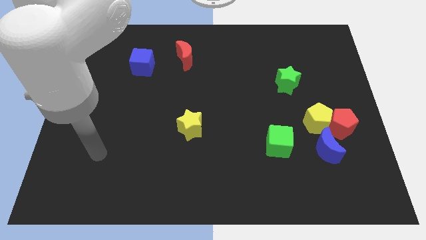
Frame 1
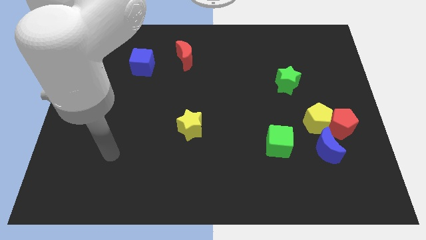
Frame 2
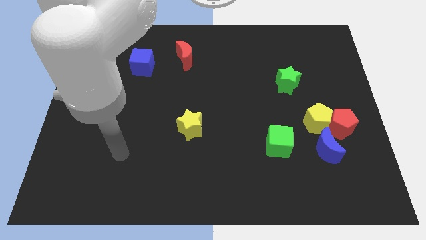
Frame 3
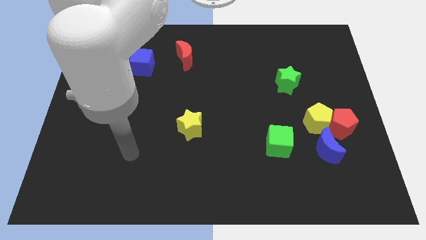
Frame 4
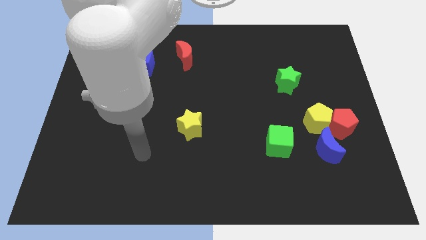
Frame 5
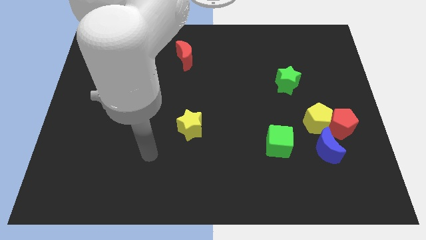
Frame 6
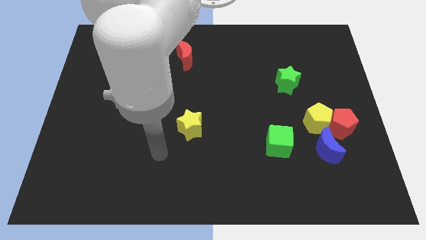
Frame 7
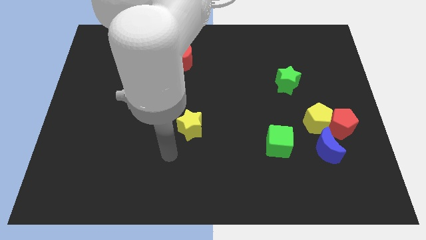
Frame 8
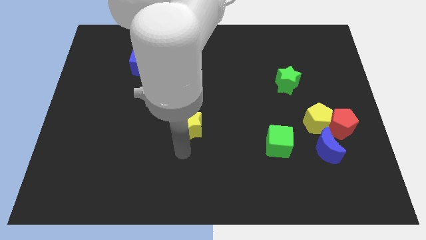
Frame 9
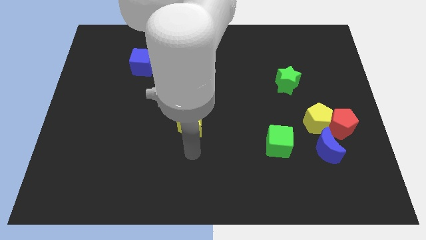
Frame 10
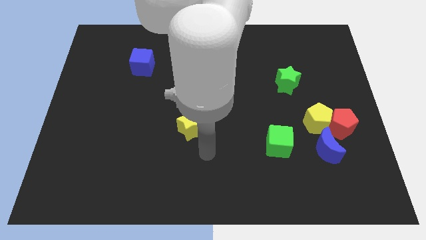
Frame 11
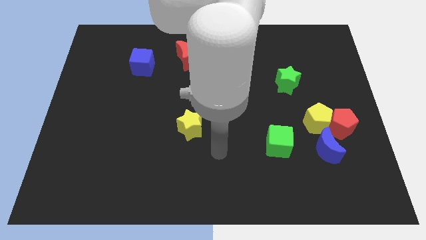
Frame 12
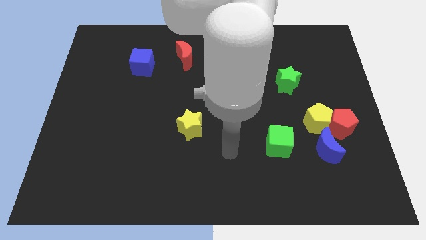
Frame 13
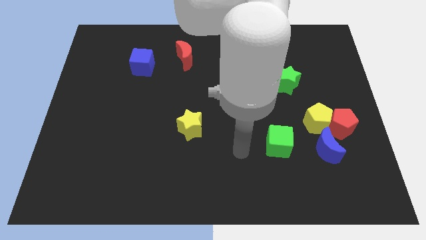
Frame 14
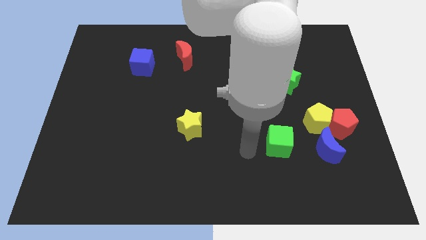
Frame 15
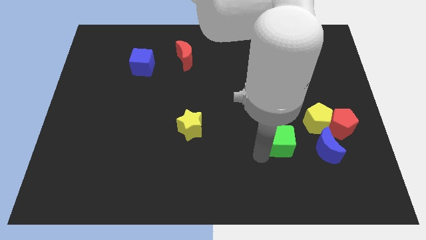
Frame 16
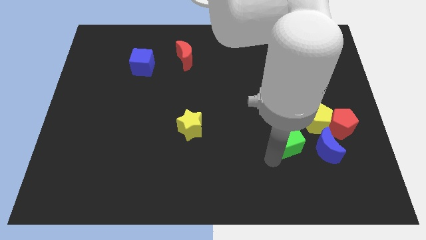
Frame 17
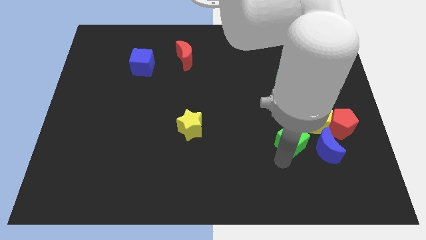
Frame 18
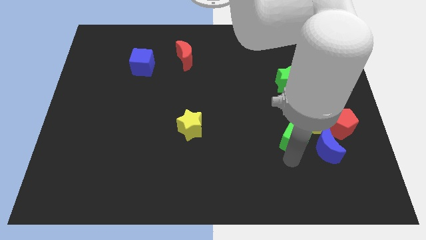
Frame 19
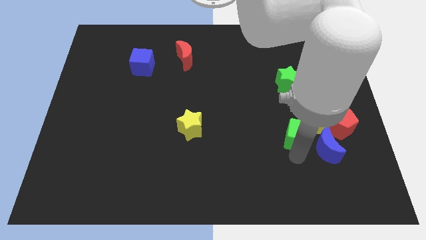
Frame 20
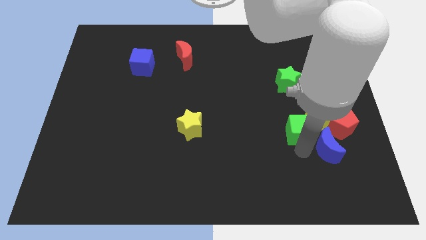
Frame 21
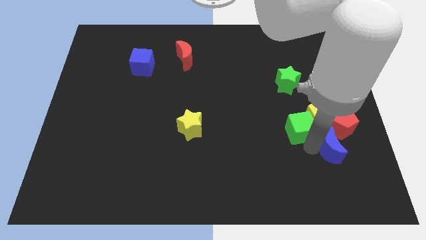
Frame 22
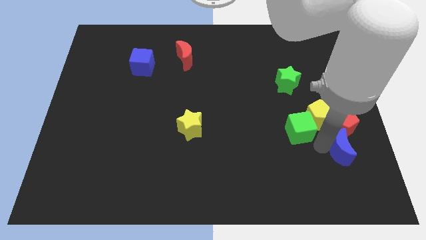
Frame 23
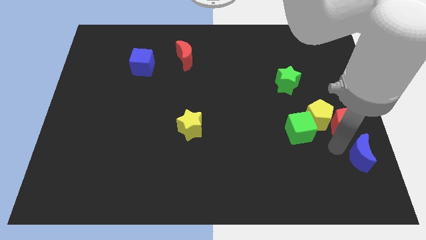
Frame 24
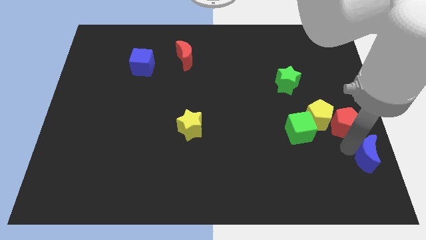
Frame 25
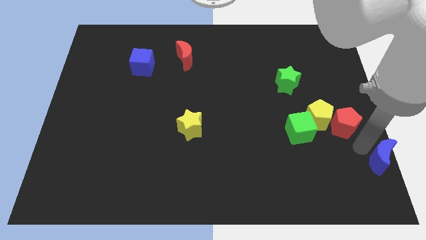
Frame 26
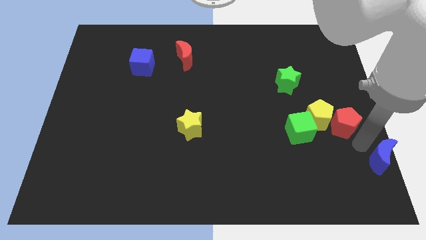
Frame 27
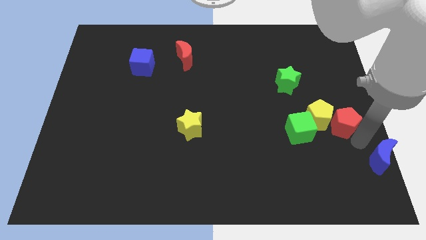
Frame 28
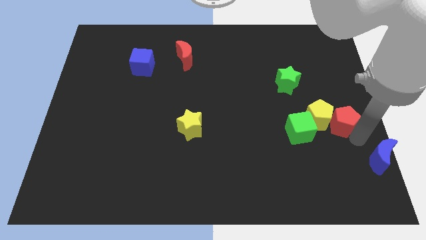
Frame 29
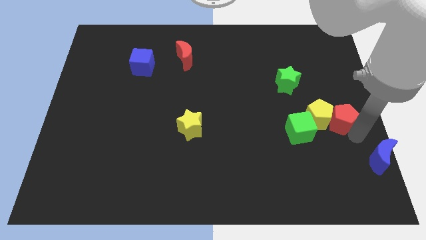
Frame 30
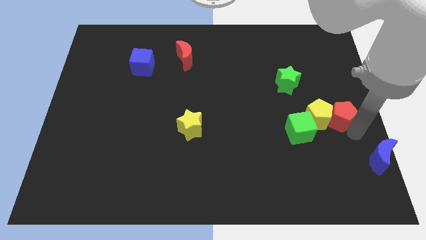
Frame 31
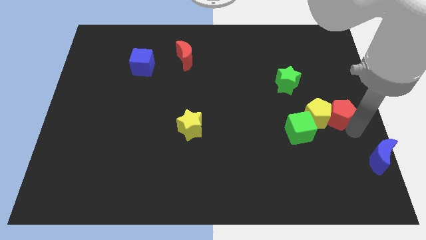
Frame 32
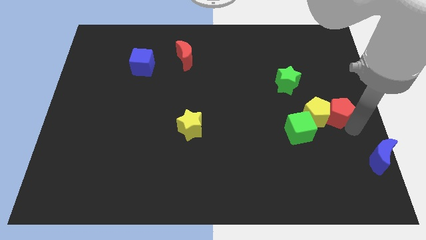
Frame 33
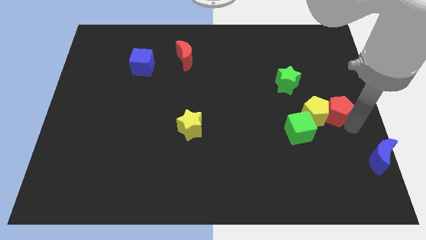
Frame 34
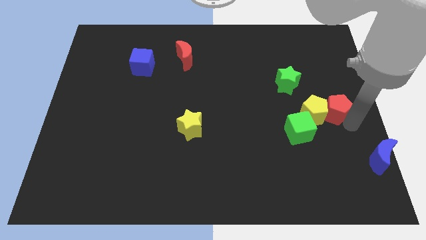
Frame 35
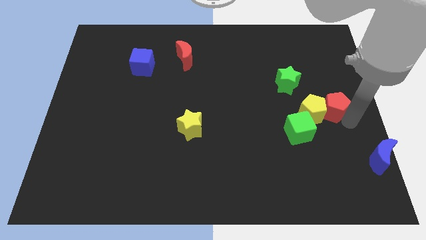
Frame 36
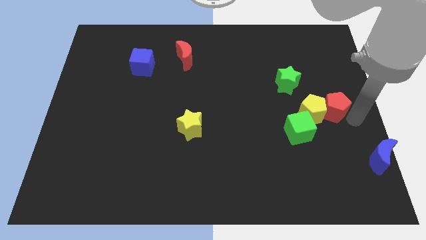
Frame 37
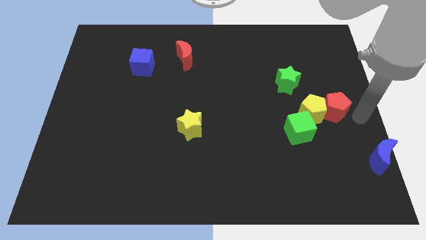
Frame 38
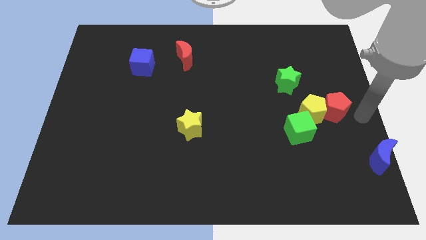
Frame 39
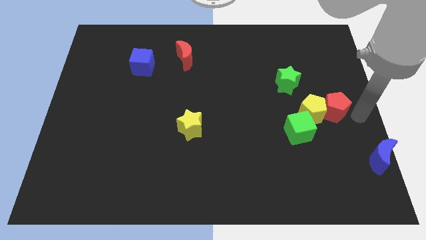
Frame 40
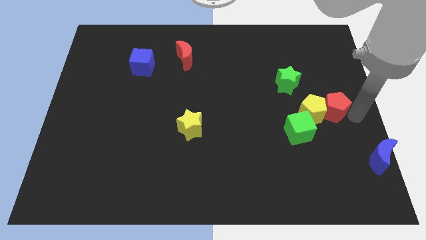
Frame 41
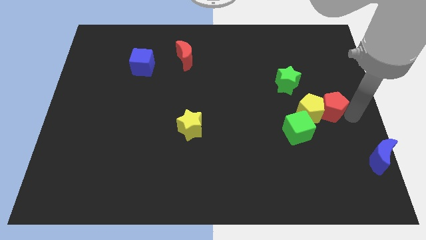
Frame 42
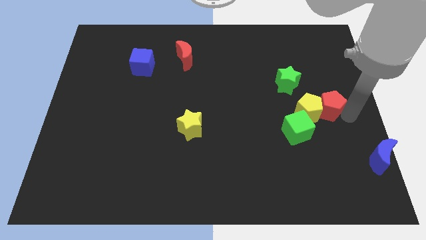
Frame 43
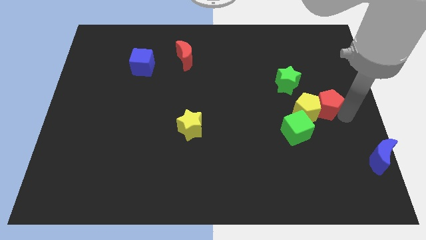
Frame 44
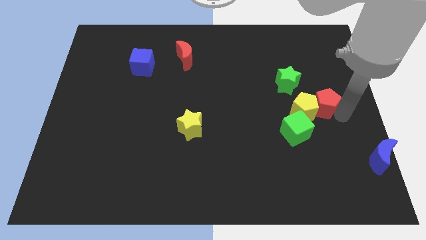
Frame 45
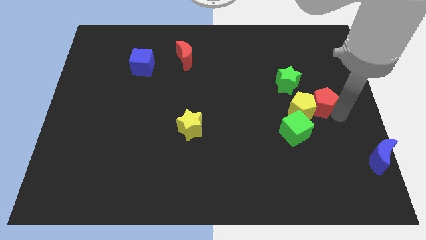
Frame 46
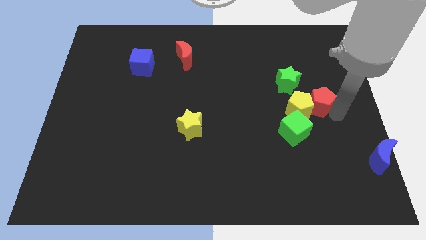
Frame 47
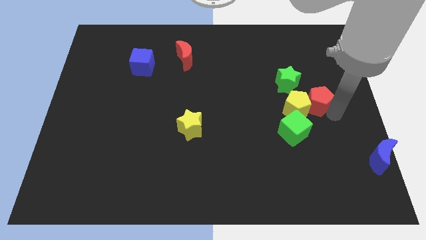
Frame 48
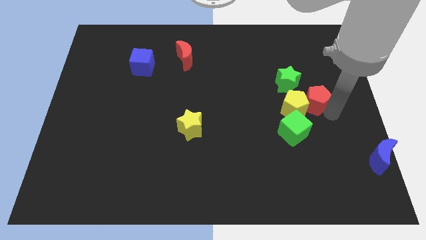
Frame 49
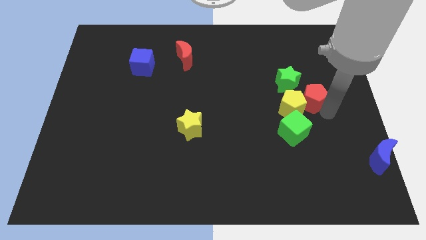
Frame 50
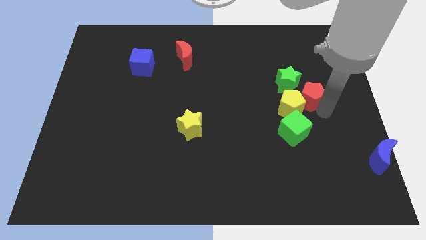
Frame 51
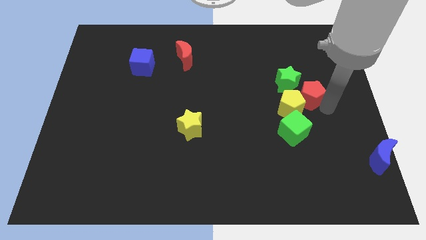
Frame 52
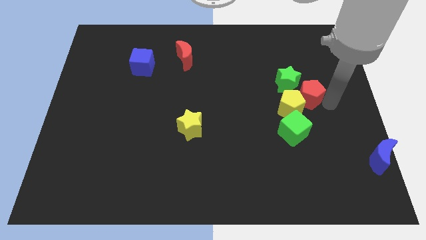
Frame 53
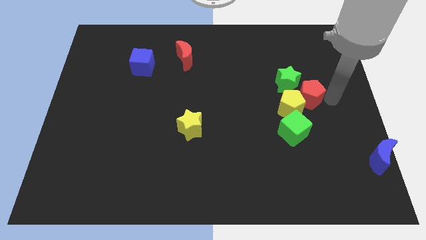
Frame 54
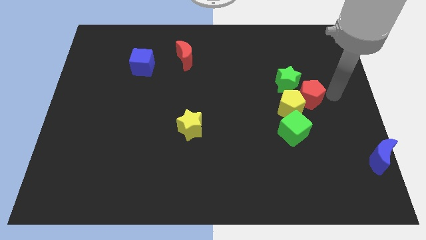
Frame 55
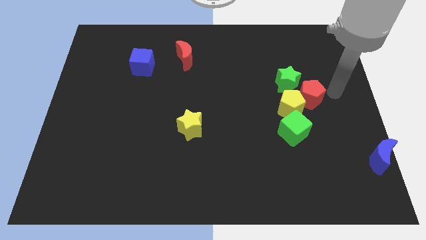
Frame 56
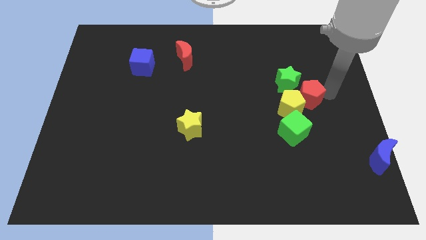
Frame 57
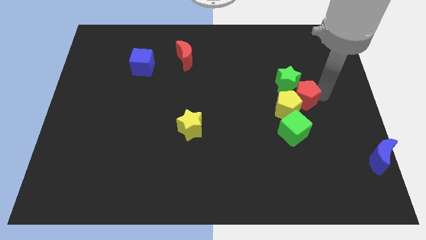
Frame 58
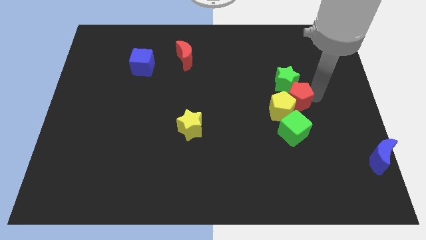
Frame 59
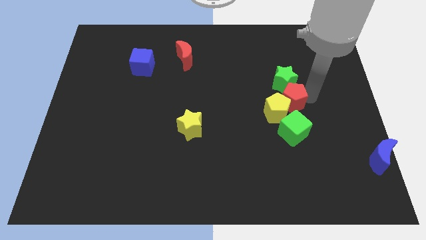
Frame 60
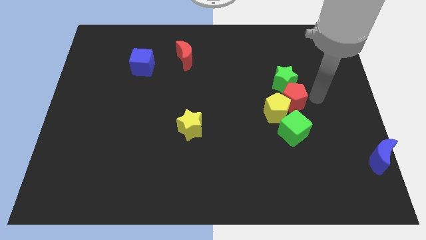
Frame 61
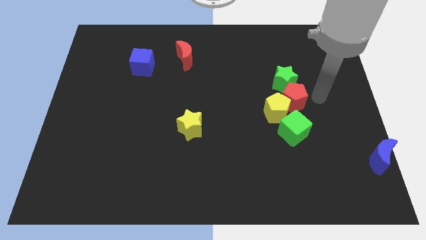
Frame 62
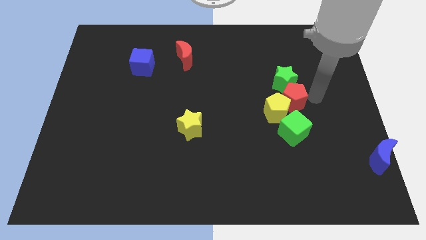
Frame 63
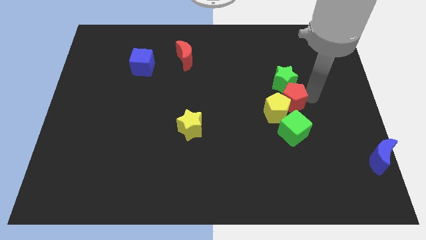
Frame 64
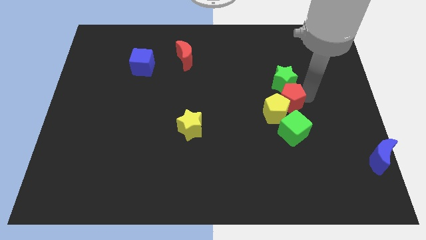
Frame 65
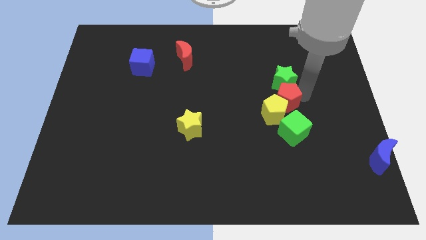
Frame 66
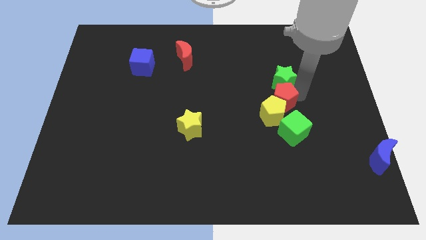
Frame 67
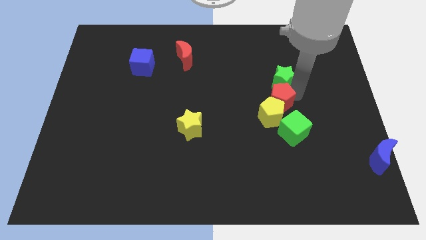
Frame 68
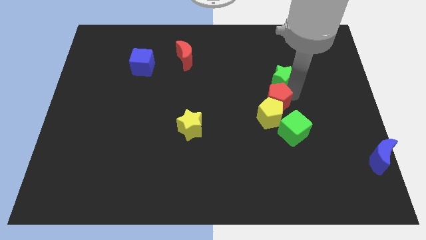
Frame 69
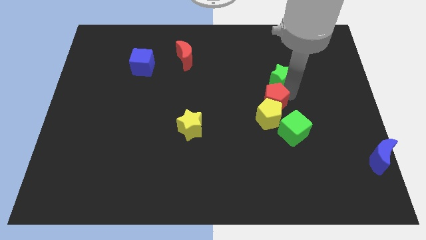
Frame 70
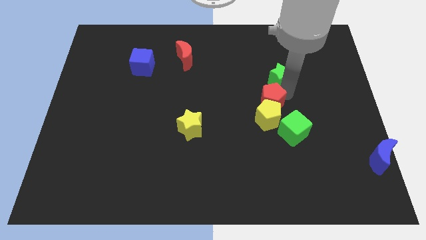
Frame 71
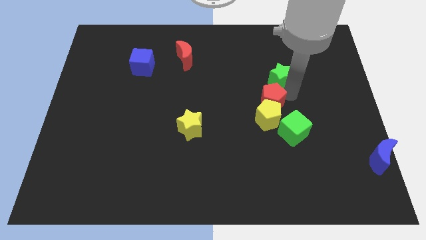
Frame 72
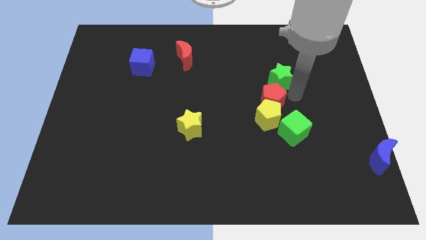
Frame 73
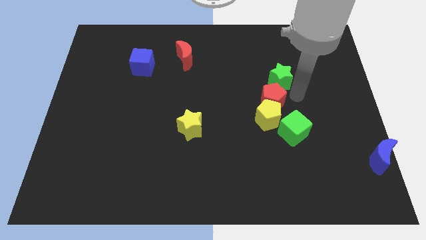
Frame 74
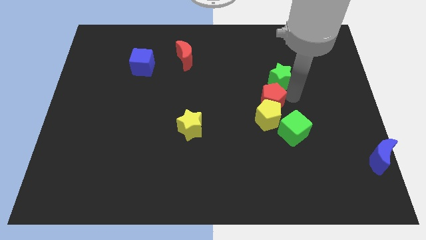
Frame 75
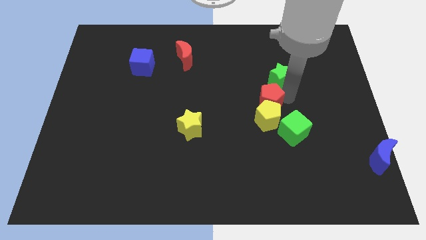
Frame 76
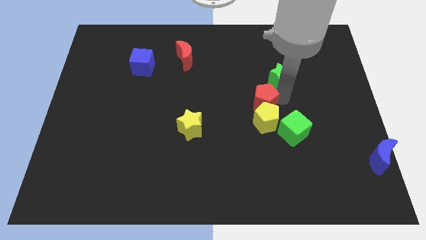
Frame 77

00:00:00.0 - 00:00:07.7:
push the red pentagon to the center
